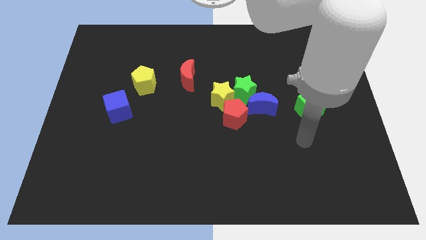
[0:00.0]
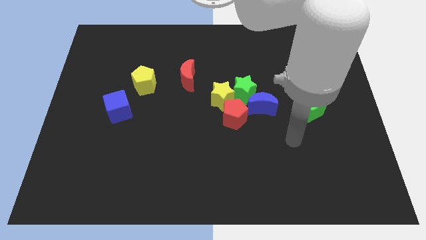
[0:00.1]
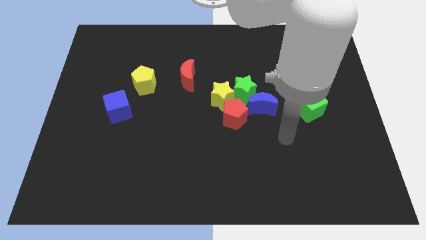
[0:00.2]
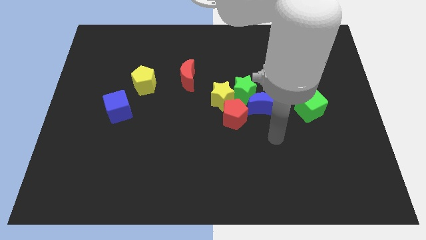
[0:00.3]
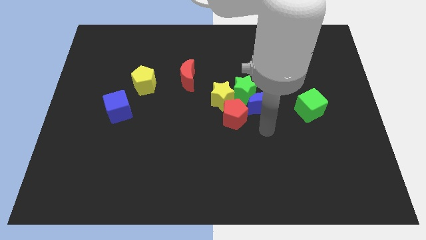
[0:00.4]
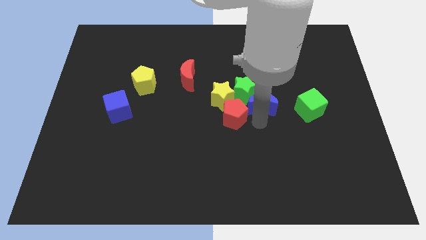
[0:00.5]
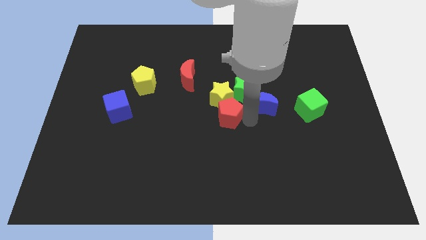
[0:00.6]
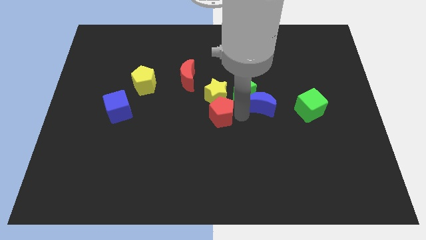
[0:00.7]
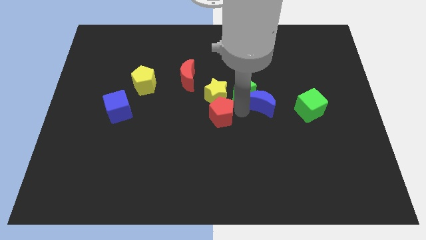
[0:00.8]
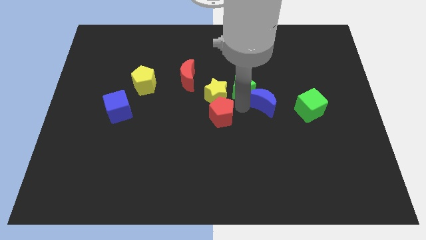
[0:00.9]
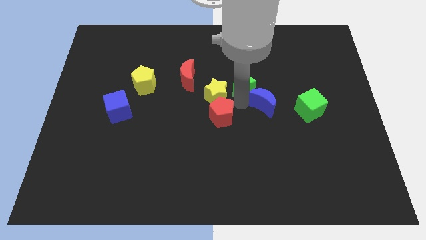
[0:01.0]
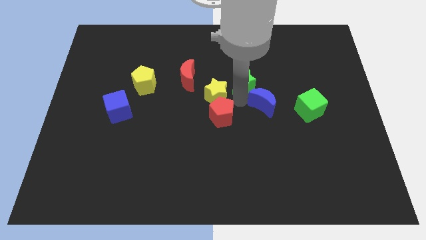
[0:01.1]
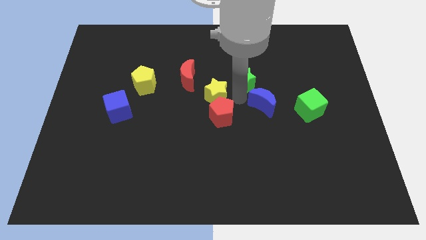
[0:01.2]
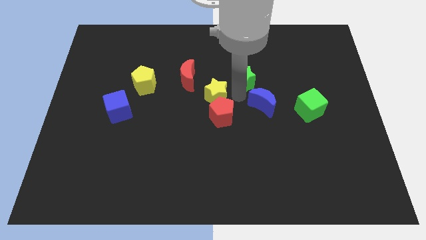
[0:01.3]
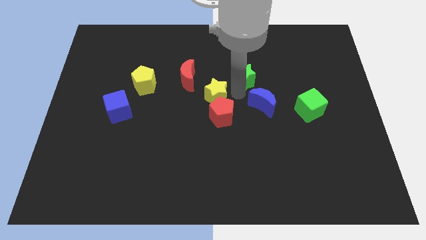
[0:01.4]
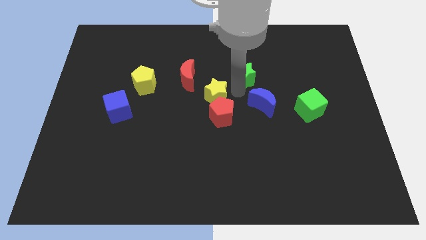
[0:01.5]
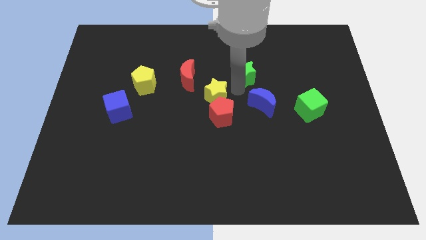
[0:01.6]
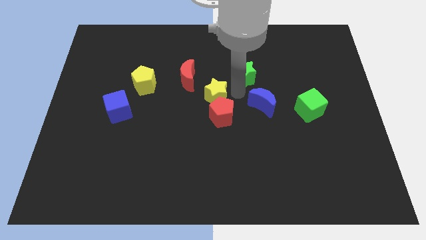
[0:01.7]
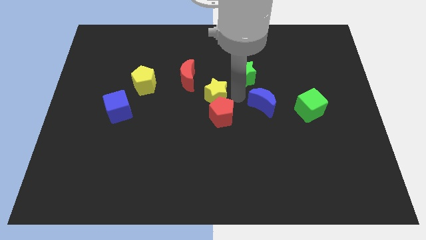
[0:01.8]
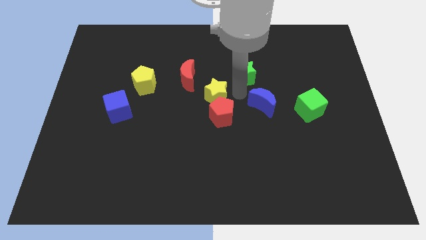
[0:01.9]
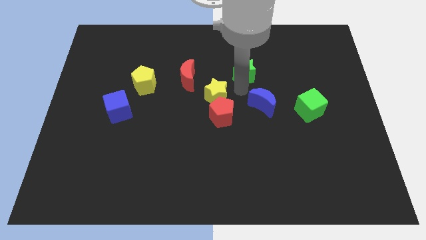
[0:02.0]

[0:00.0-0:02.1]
separate the green star from the group

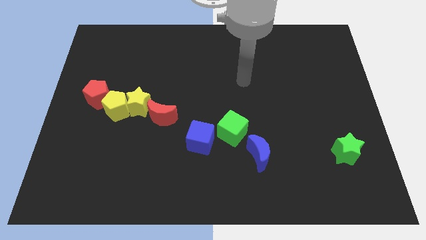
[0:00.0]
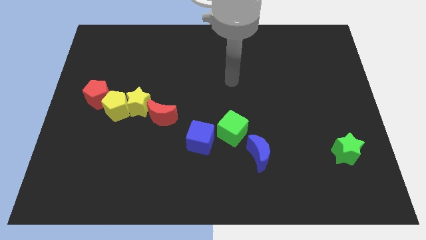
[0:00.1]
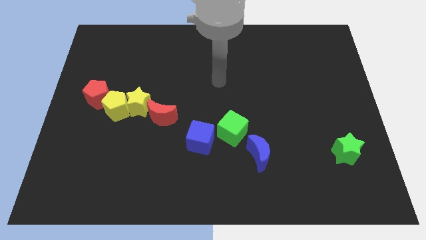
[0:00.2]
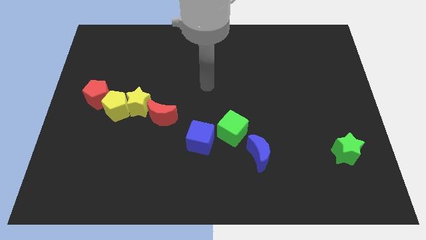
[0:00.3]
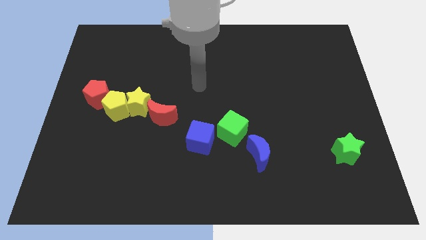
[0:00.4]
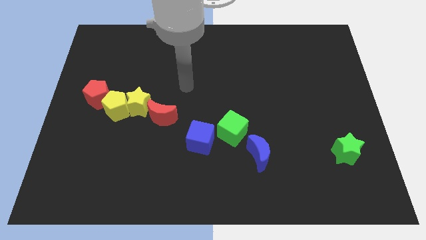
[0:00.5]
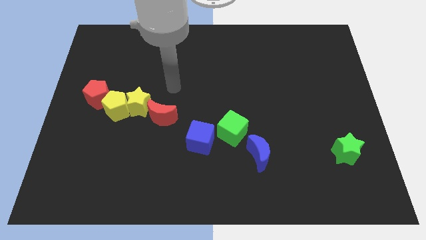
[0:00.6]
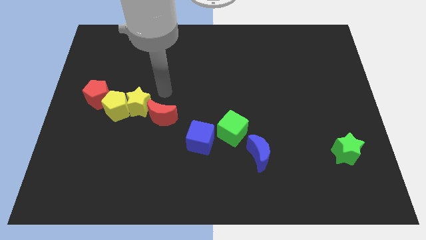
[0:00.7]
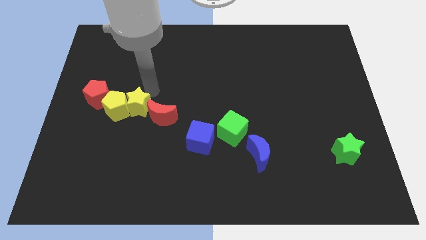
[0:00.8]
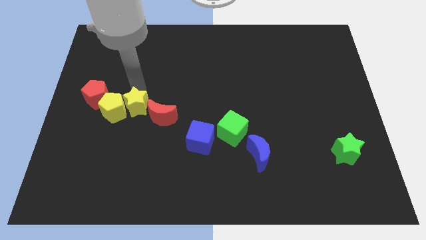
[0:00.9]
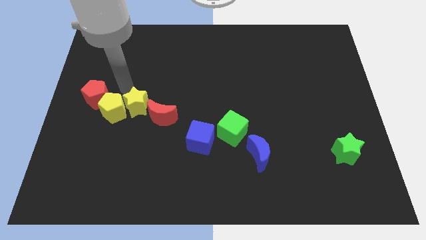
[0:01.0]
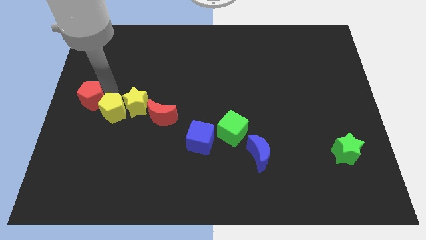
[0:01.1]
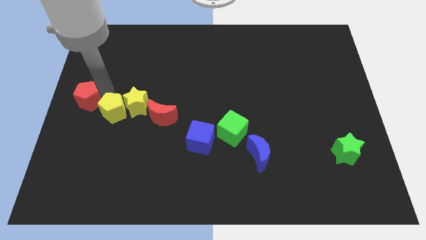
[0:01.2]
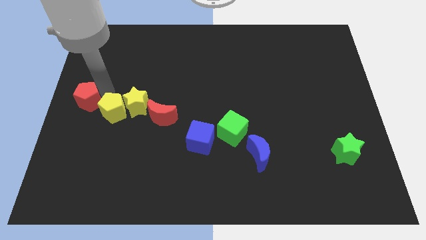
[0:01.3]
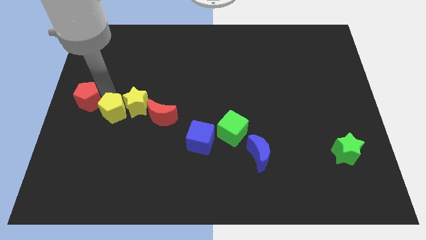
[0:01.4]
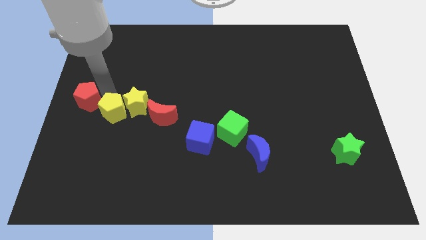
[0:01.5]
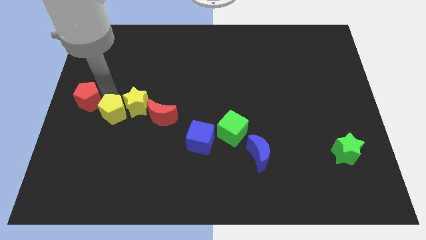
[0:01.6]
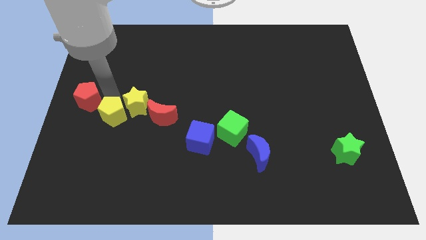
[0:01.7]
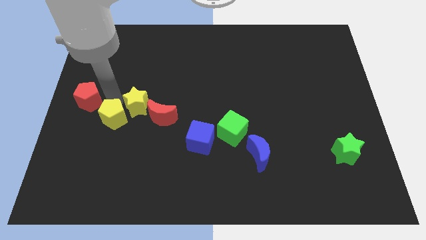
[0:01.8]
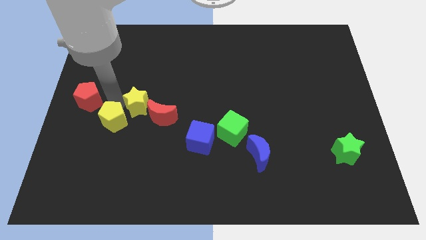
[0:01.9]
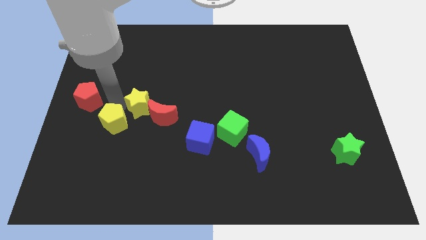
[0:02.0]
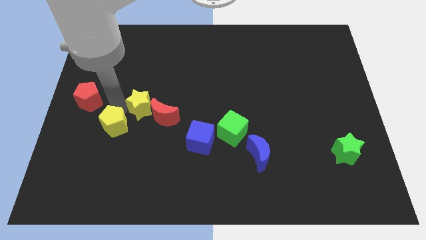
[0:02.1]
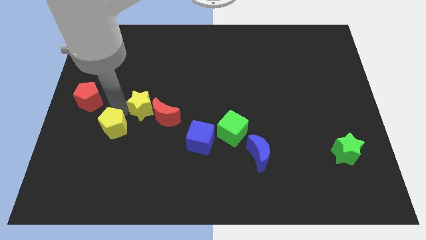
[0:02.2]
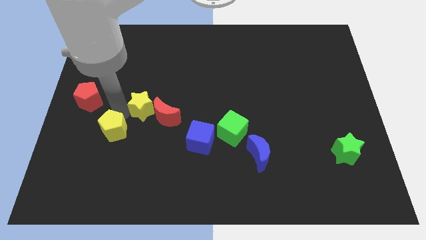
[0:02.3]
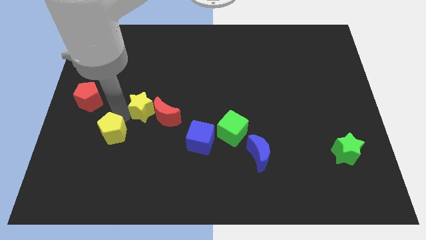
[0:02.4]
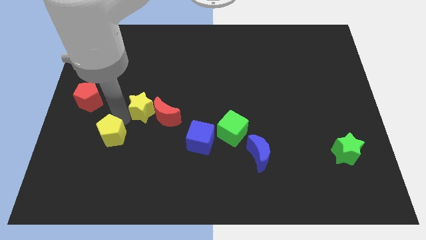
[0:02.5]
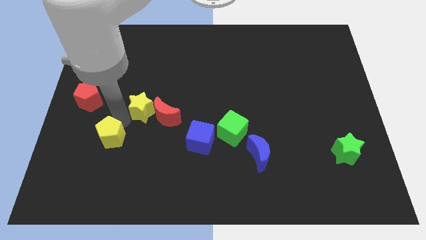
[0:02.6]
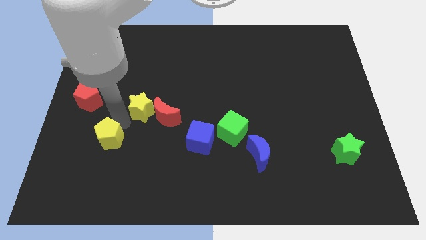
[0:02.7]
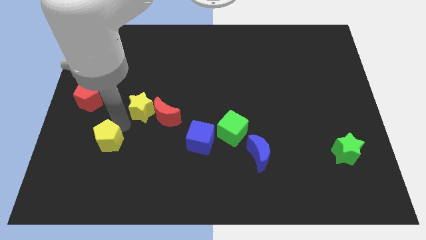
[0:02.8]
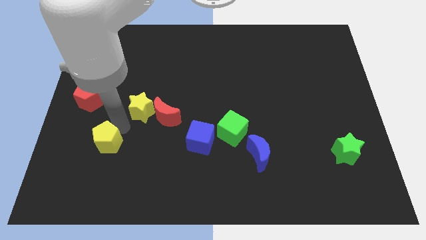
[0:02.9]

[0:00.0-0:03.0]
pull the yellow pentagon apart from the yellow star and red pentagon

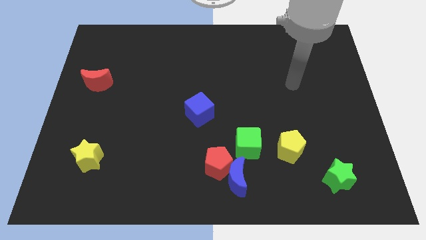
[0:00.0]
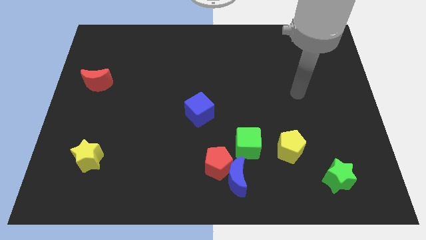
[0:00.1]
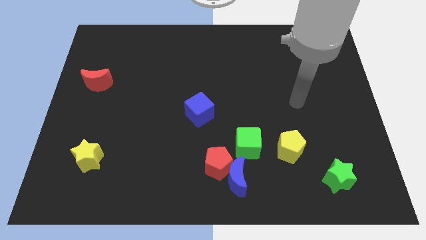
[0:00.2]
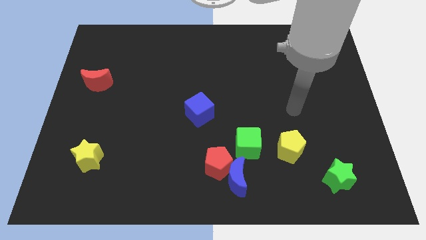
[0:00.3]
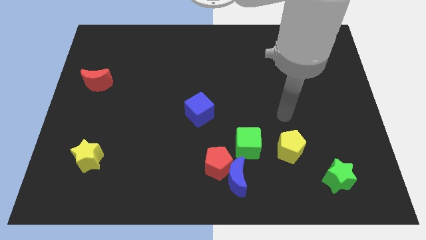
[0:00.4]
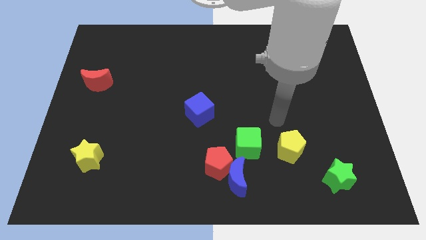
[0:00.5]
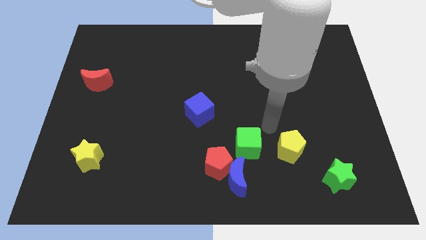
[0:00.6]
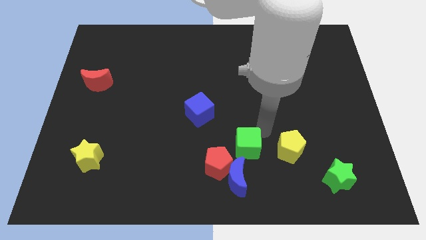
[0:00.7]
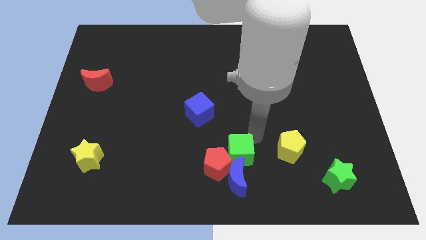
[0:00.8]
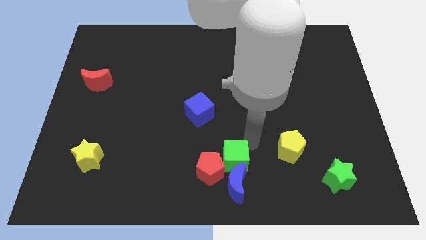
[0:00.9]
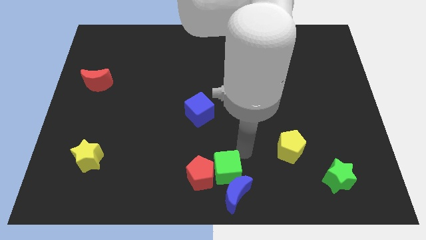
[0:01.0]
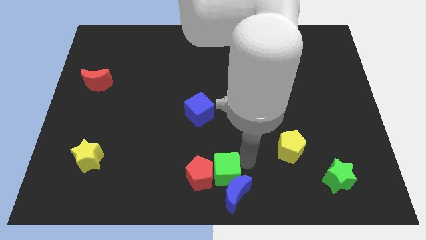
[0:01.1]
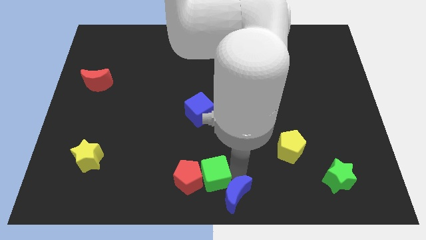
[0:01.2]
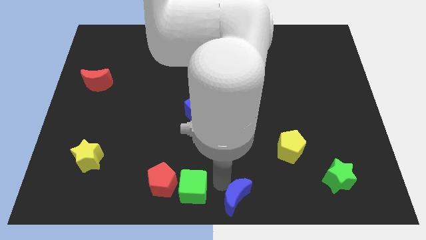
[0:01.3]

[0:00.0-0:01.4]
separate the red pentagon from the blue moon and green cube

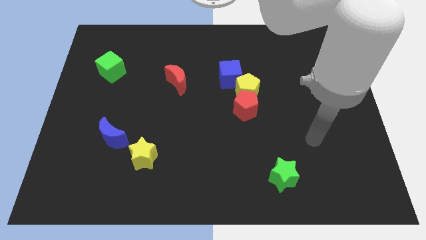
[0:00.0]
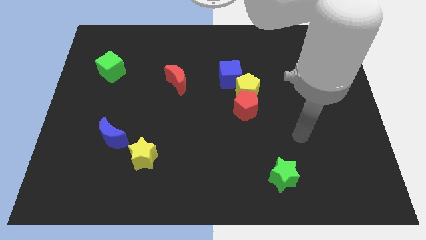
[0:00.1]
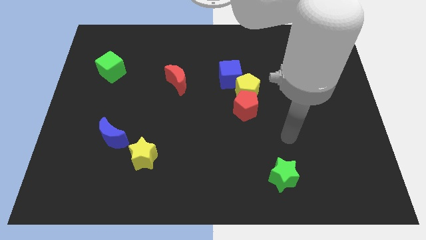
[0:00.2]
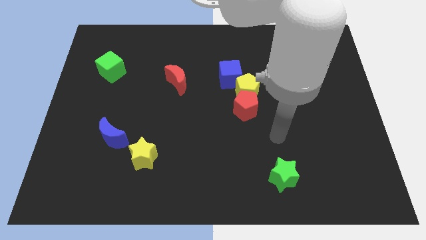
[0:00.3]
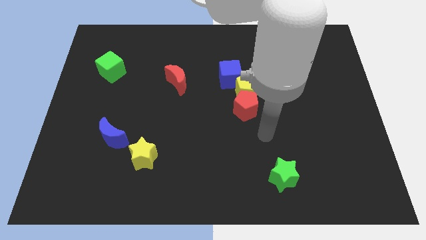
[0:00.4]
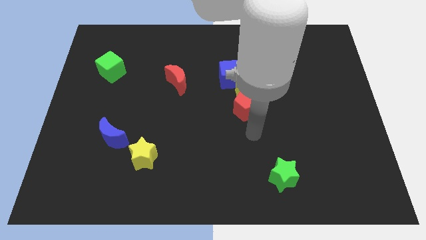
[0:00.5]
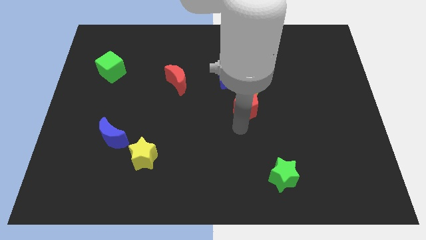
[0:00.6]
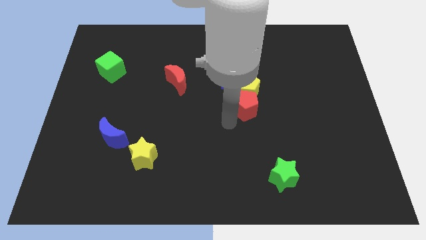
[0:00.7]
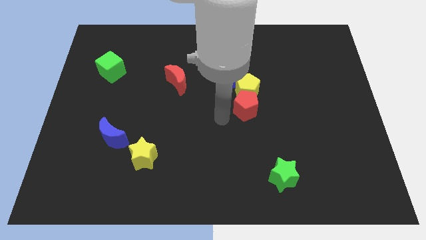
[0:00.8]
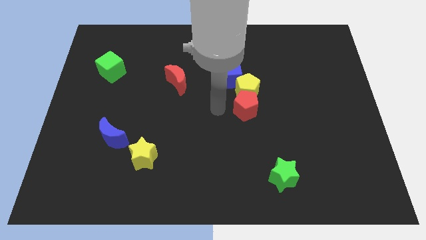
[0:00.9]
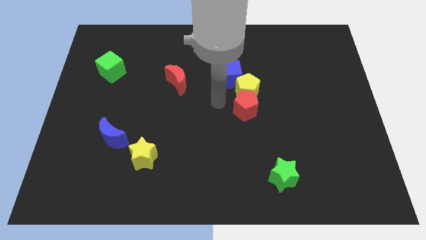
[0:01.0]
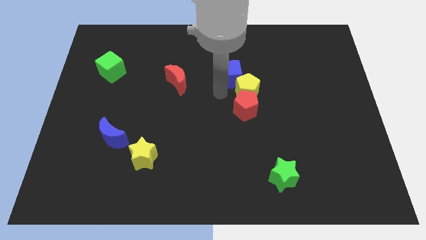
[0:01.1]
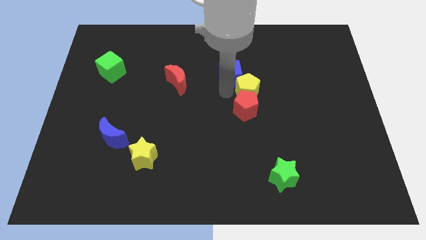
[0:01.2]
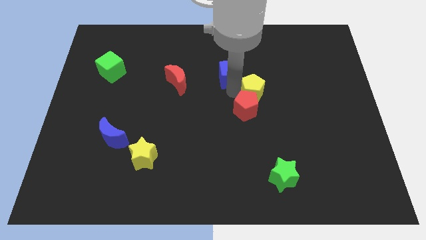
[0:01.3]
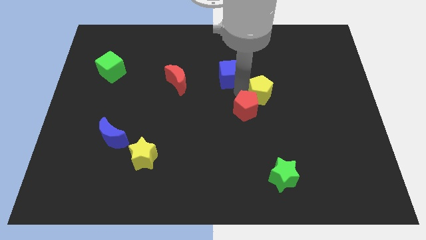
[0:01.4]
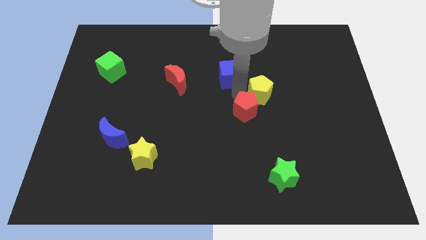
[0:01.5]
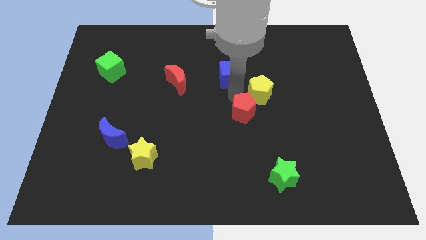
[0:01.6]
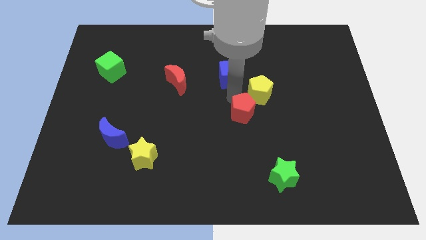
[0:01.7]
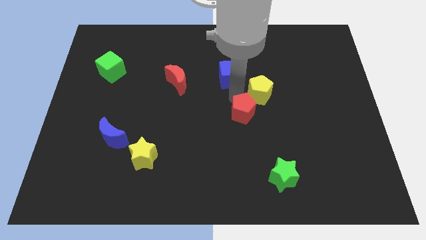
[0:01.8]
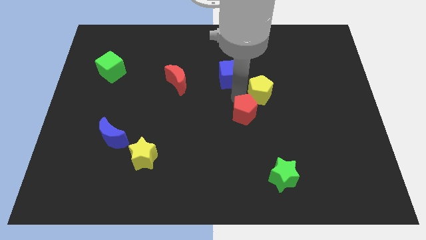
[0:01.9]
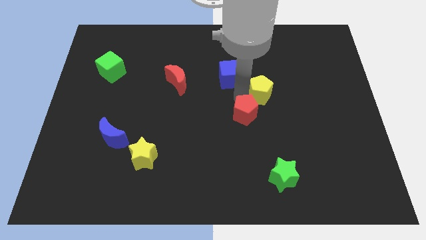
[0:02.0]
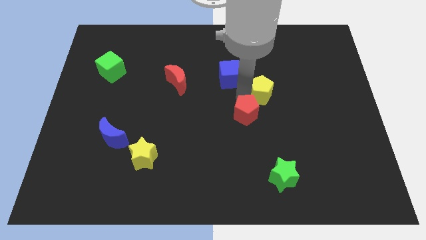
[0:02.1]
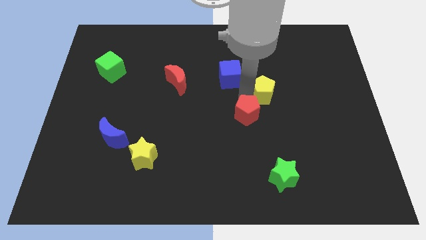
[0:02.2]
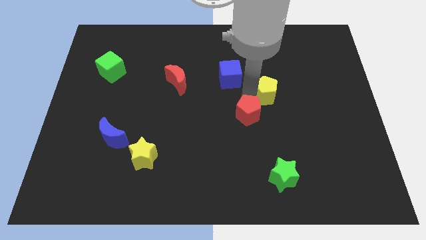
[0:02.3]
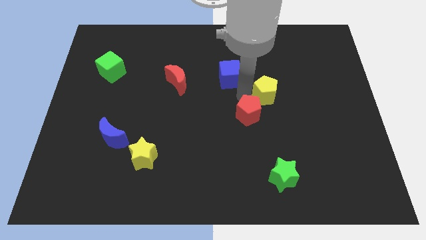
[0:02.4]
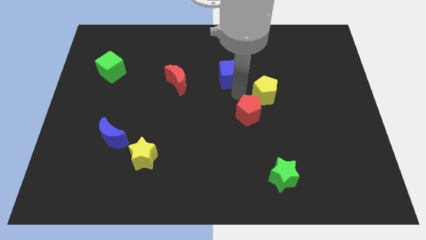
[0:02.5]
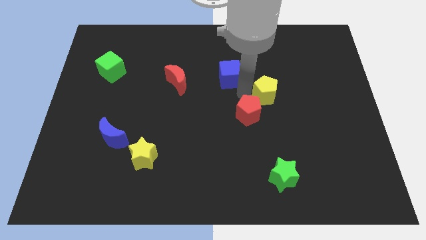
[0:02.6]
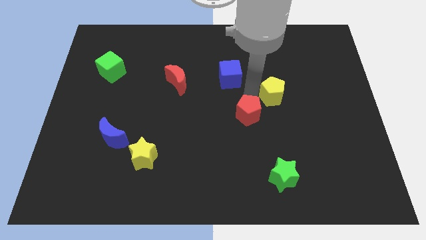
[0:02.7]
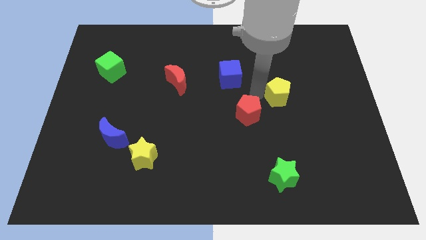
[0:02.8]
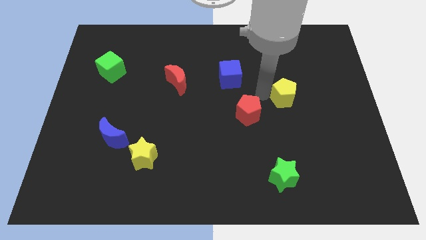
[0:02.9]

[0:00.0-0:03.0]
separate the yellow pentagon from the red pentagon and blue cube
